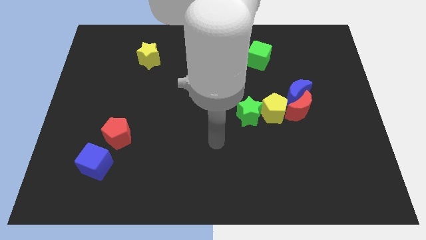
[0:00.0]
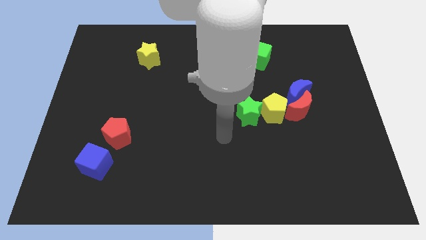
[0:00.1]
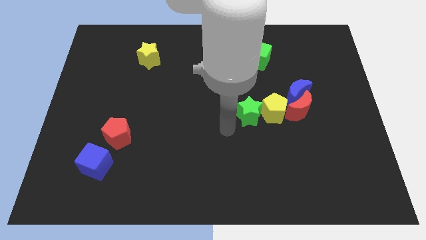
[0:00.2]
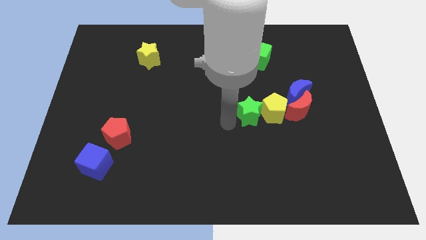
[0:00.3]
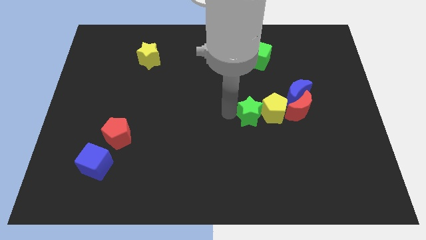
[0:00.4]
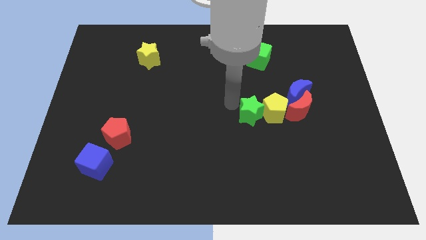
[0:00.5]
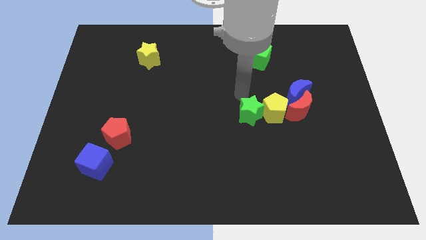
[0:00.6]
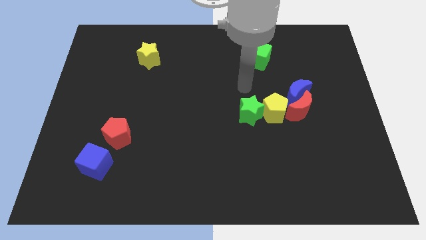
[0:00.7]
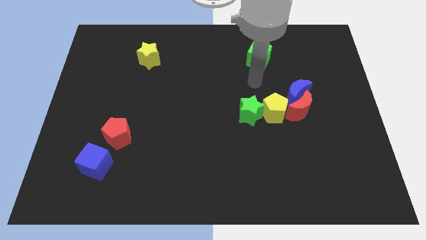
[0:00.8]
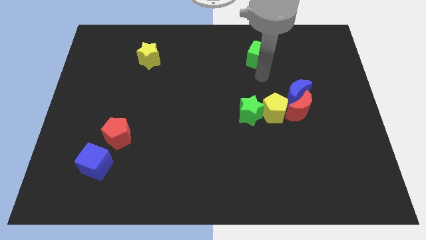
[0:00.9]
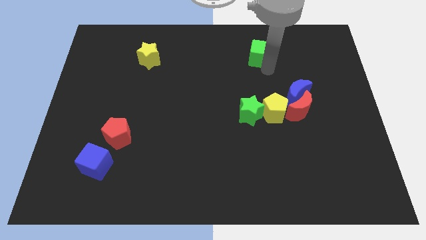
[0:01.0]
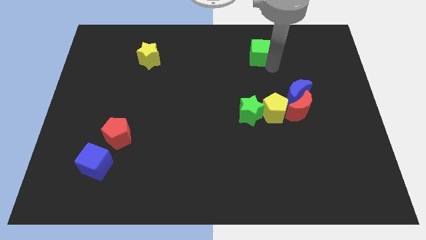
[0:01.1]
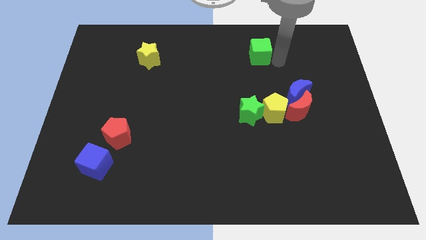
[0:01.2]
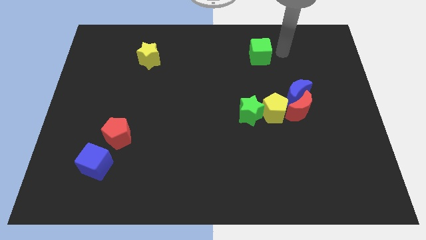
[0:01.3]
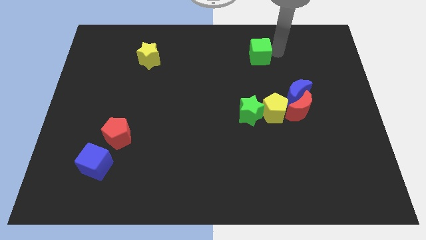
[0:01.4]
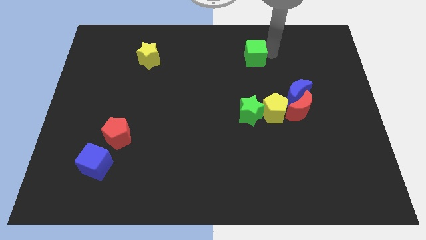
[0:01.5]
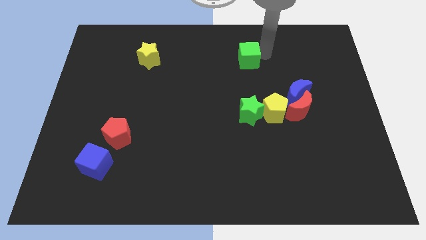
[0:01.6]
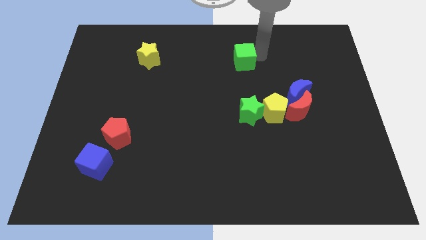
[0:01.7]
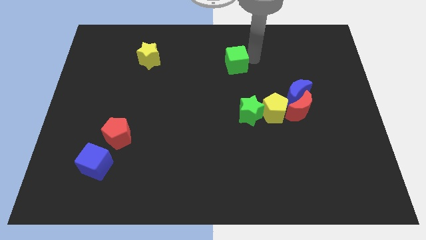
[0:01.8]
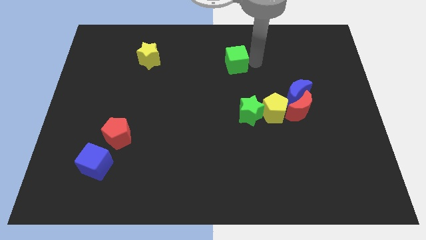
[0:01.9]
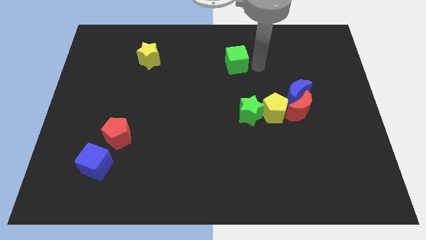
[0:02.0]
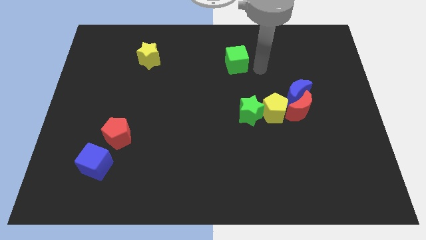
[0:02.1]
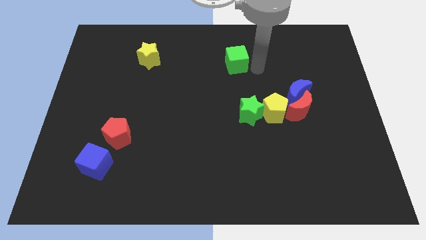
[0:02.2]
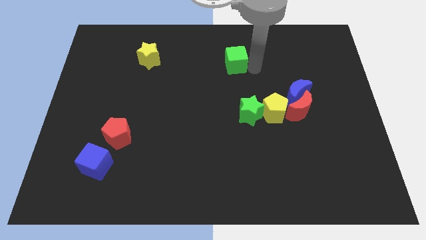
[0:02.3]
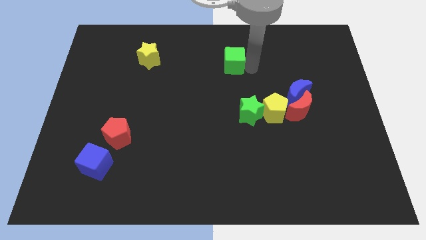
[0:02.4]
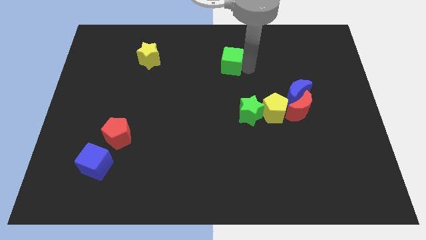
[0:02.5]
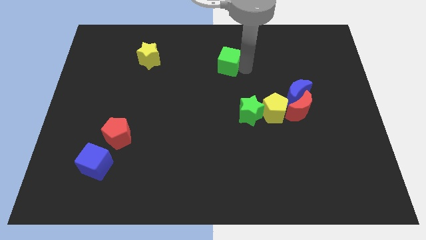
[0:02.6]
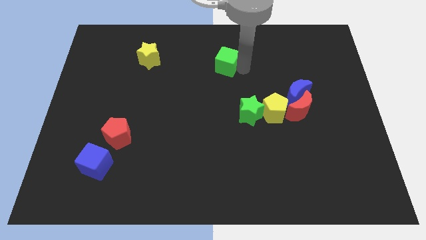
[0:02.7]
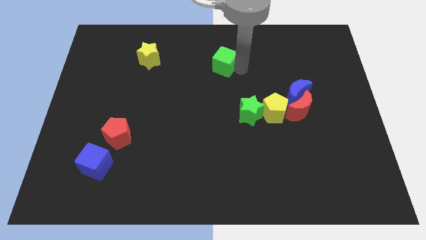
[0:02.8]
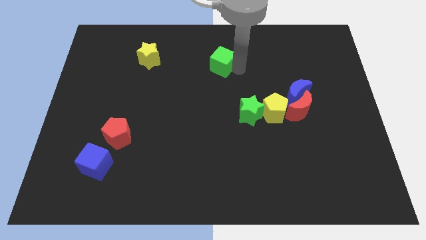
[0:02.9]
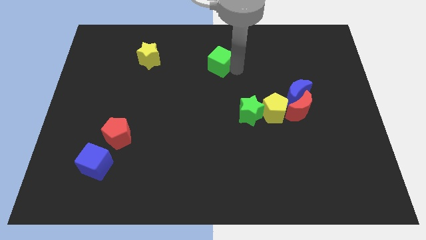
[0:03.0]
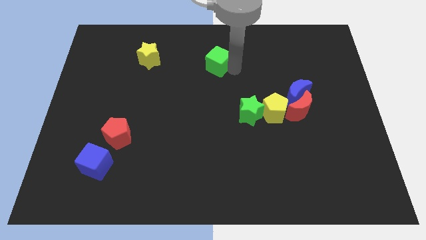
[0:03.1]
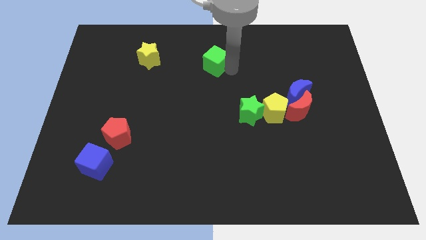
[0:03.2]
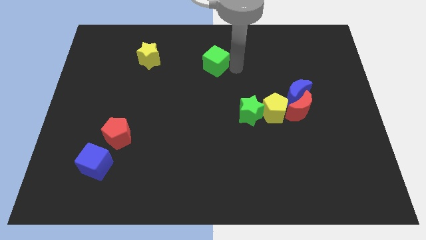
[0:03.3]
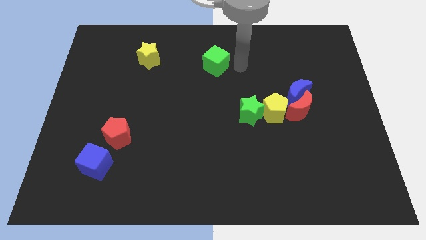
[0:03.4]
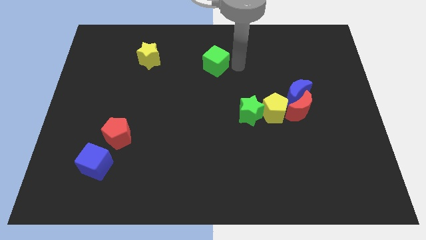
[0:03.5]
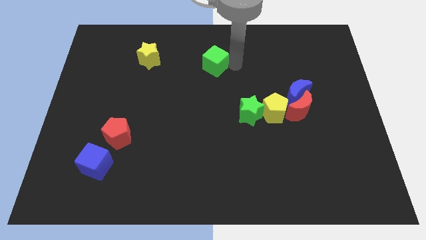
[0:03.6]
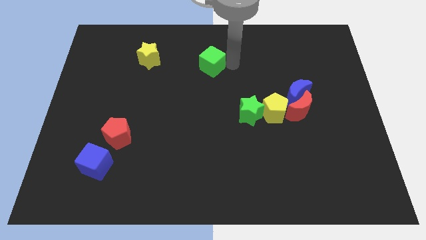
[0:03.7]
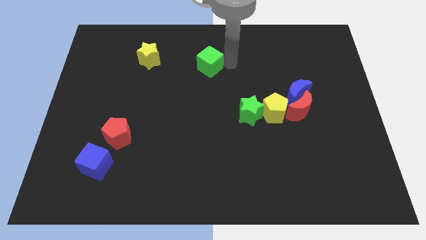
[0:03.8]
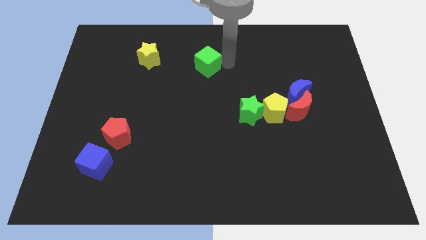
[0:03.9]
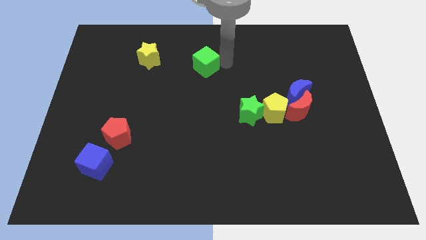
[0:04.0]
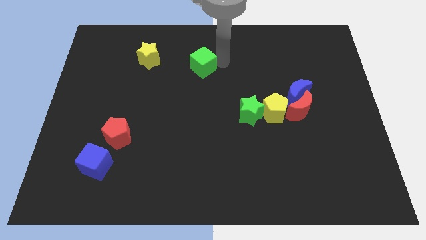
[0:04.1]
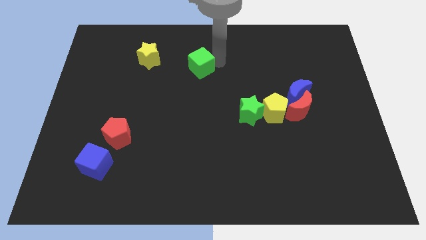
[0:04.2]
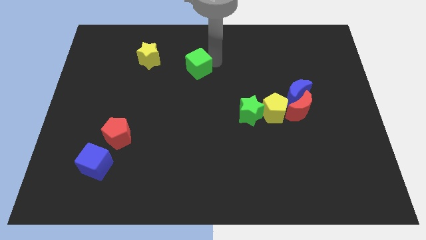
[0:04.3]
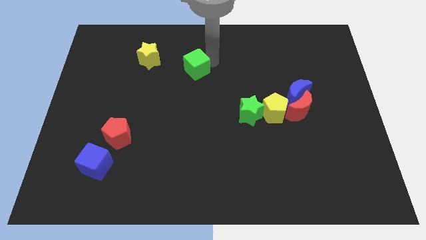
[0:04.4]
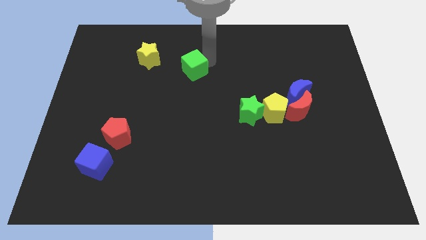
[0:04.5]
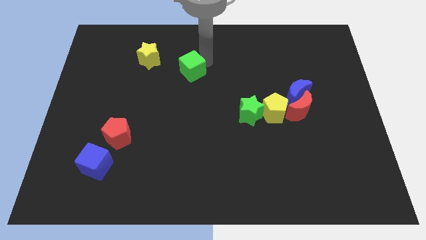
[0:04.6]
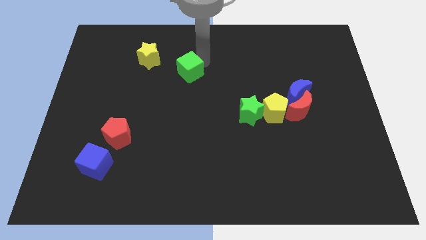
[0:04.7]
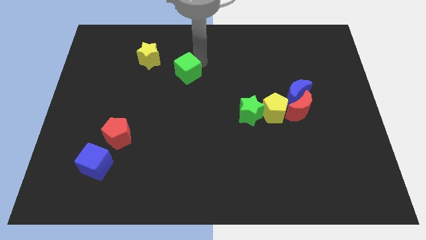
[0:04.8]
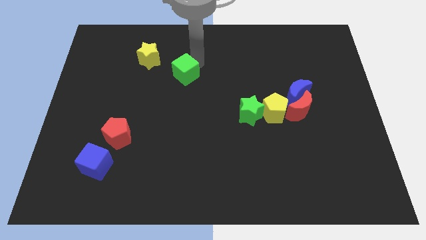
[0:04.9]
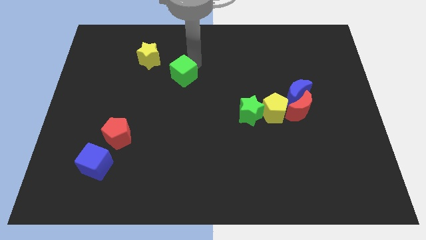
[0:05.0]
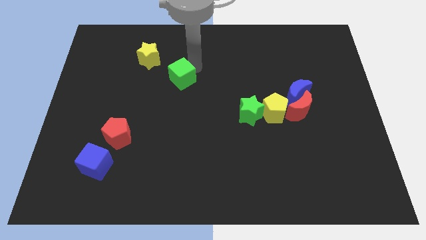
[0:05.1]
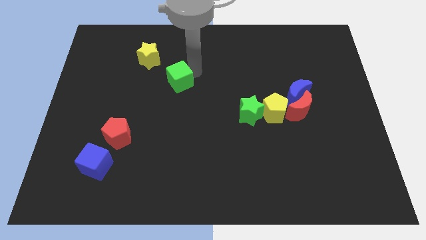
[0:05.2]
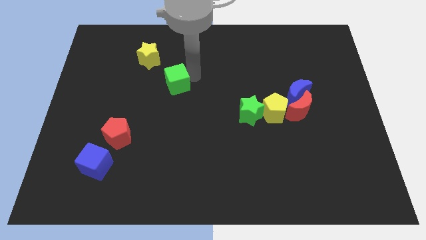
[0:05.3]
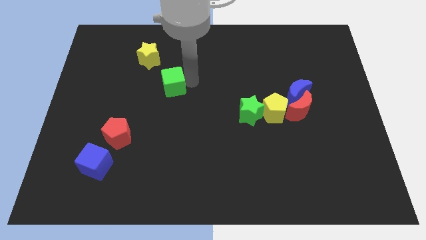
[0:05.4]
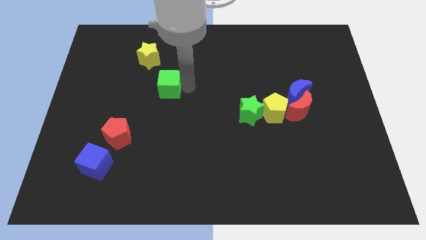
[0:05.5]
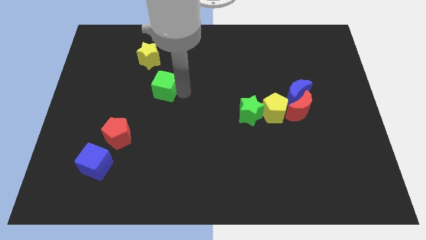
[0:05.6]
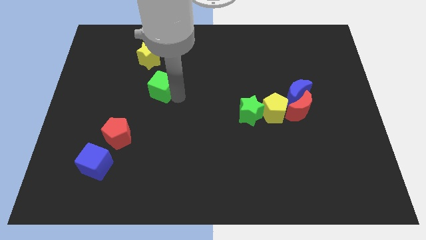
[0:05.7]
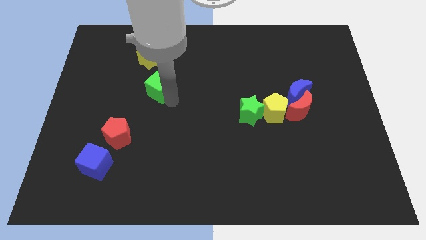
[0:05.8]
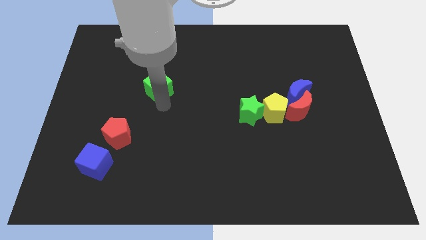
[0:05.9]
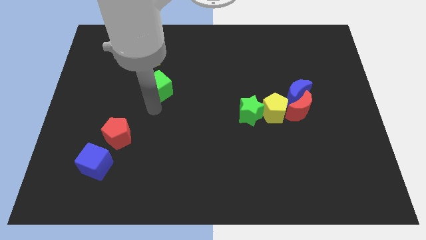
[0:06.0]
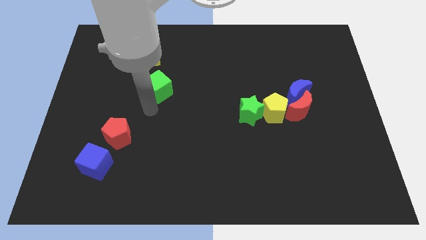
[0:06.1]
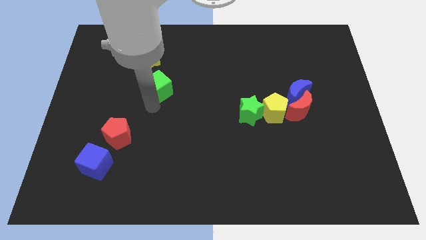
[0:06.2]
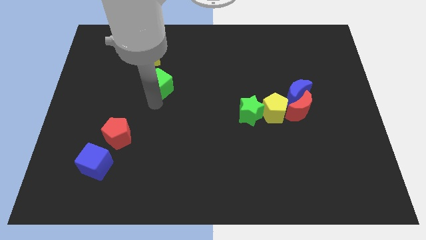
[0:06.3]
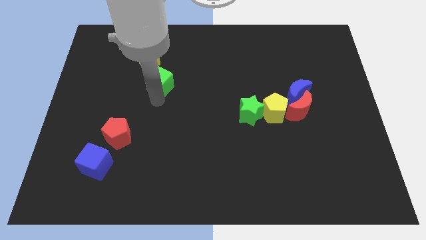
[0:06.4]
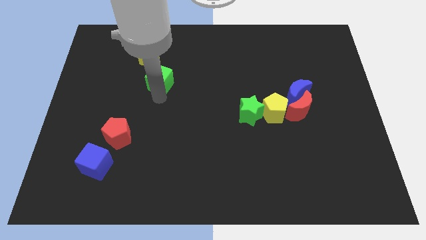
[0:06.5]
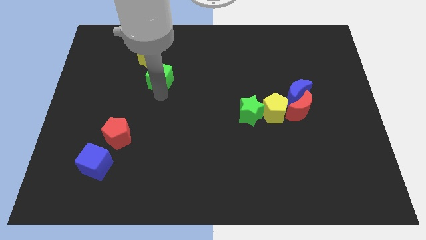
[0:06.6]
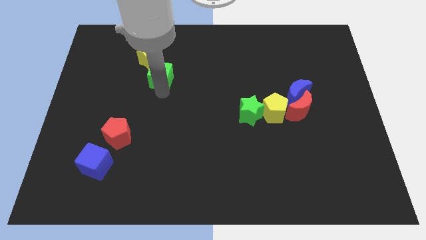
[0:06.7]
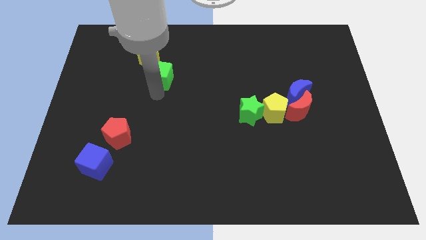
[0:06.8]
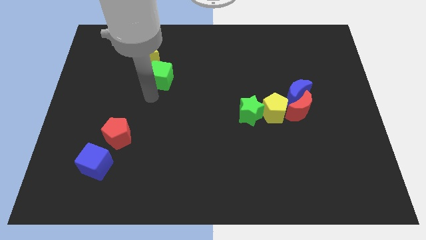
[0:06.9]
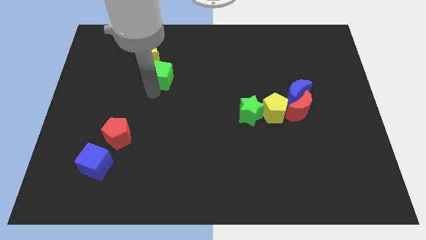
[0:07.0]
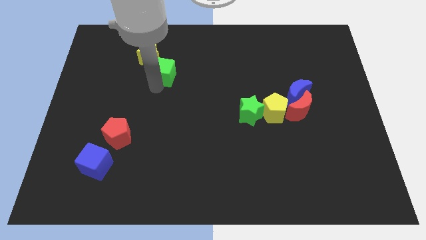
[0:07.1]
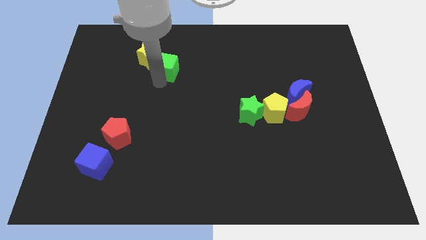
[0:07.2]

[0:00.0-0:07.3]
move the green cube close to the yellow star

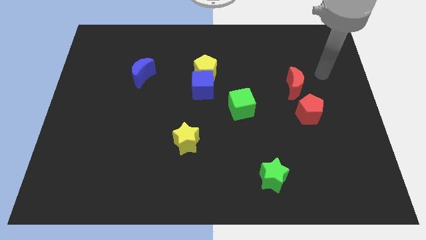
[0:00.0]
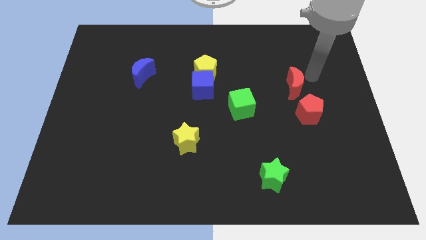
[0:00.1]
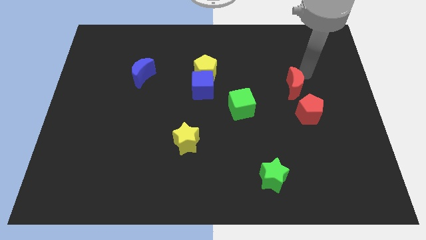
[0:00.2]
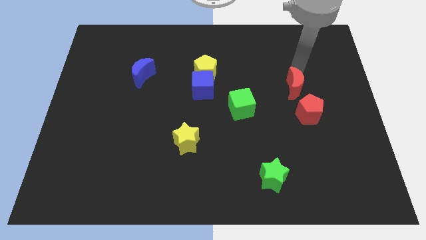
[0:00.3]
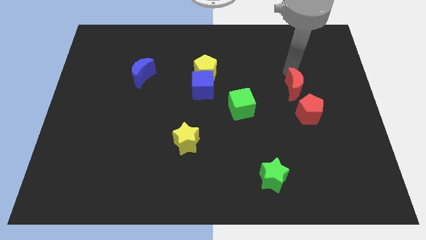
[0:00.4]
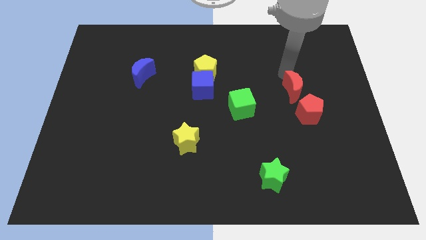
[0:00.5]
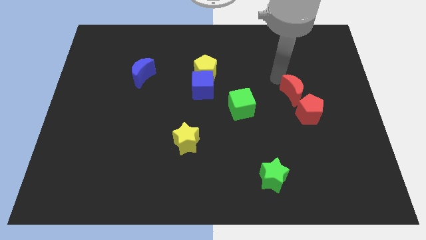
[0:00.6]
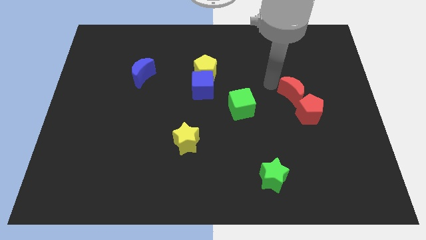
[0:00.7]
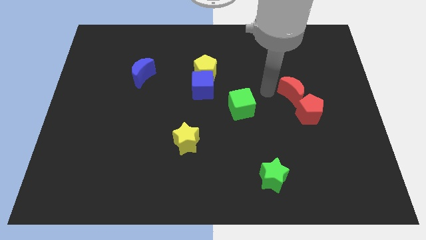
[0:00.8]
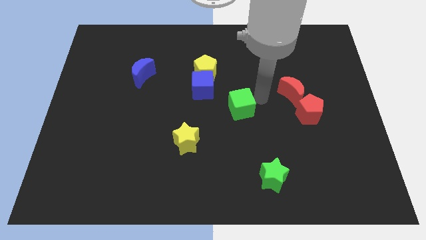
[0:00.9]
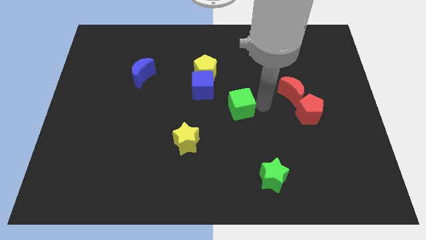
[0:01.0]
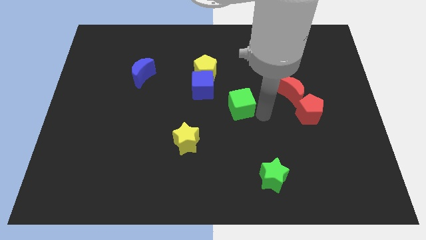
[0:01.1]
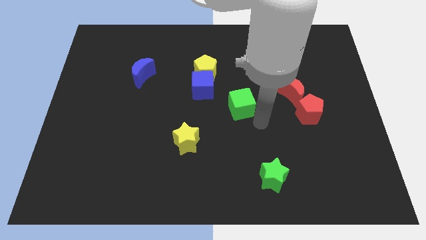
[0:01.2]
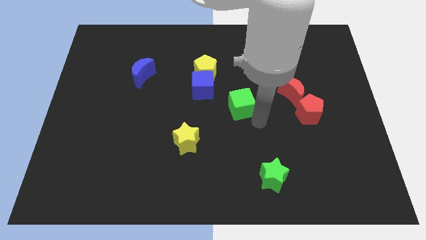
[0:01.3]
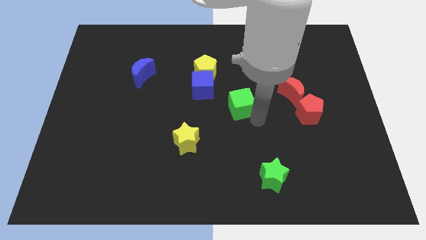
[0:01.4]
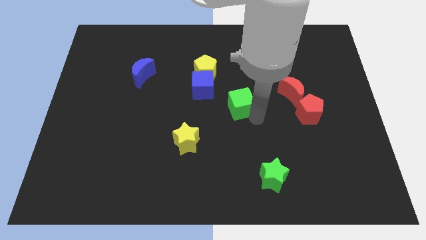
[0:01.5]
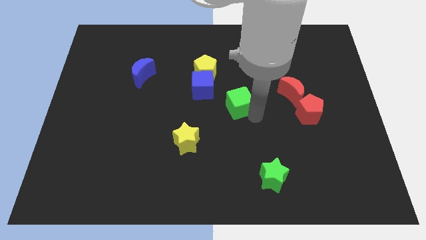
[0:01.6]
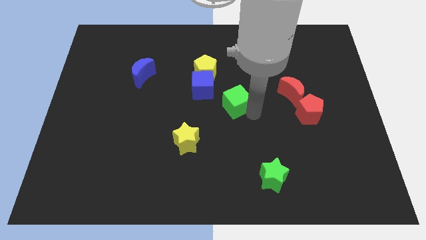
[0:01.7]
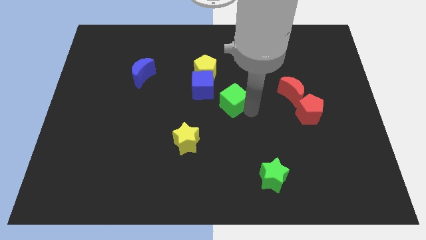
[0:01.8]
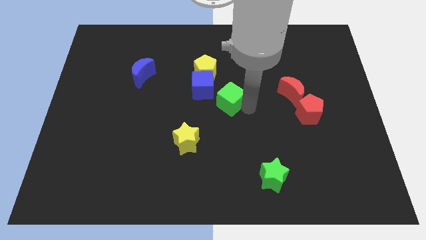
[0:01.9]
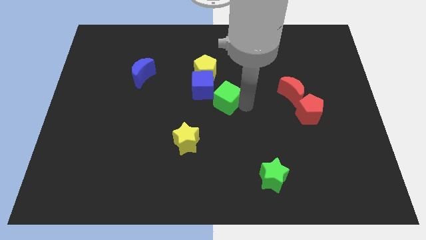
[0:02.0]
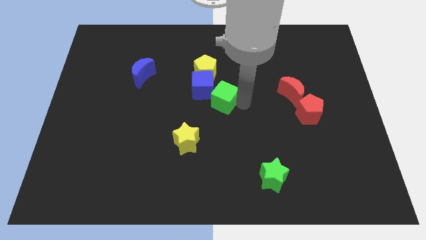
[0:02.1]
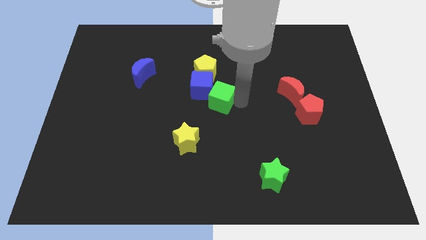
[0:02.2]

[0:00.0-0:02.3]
push the green cube towards the blue cube
